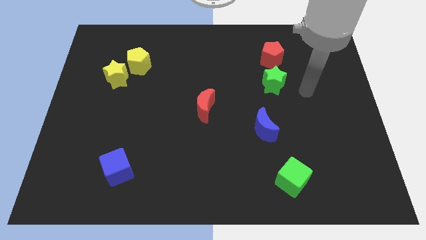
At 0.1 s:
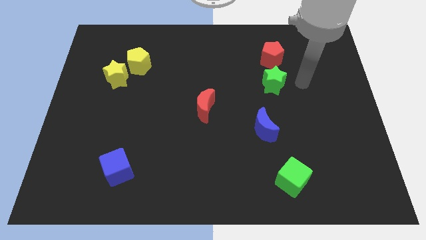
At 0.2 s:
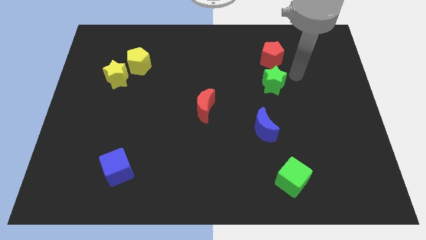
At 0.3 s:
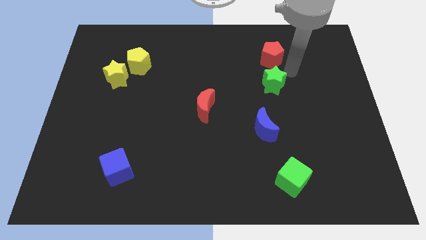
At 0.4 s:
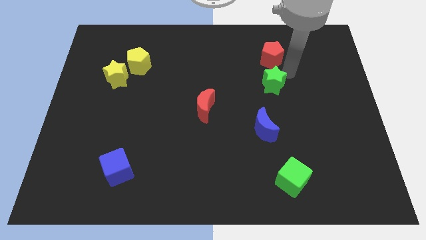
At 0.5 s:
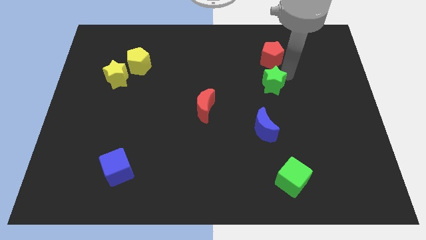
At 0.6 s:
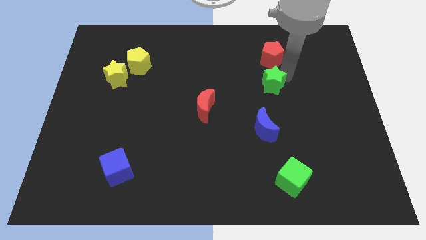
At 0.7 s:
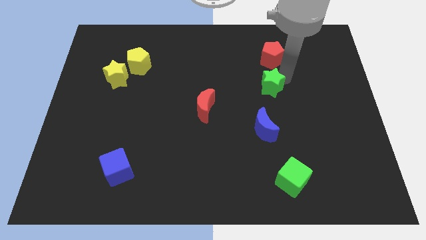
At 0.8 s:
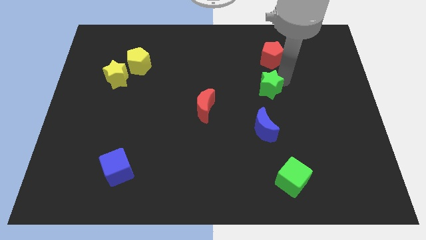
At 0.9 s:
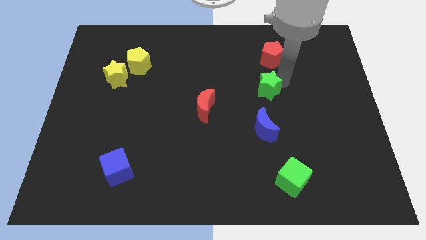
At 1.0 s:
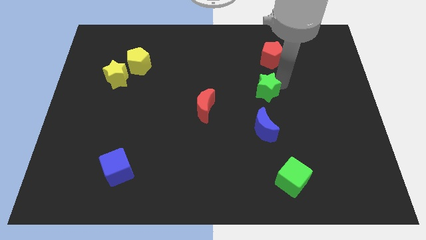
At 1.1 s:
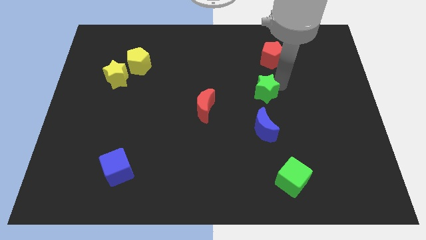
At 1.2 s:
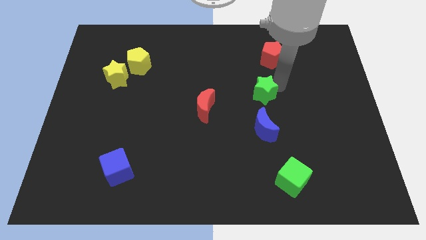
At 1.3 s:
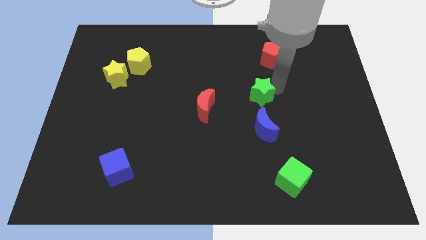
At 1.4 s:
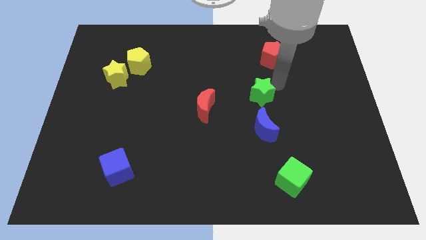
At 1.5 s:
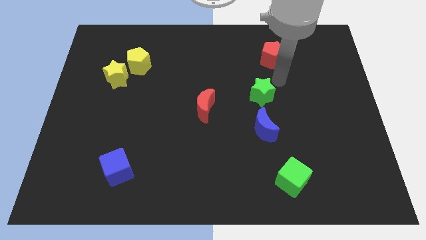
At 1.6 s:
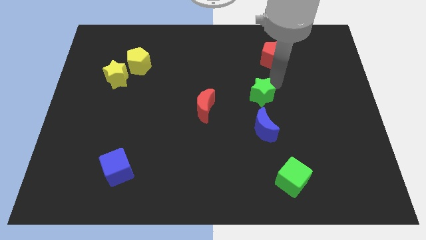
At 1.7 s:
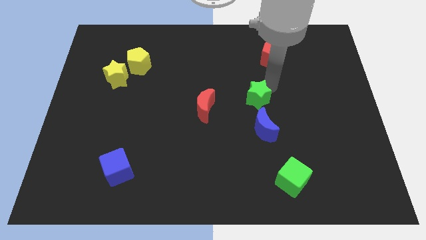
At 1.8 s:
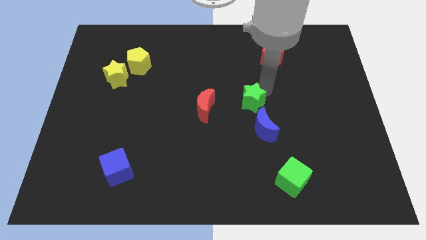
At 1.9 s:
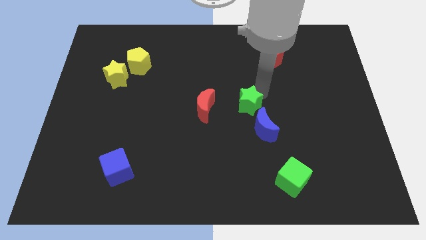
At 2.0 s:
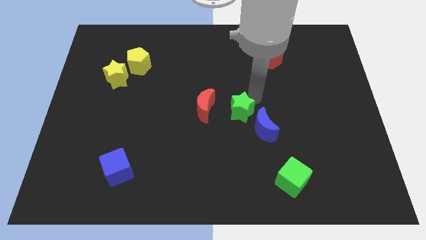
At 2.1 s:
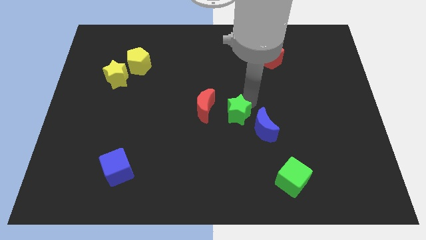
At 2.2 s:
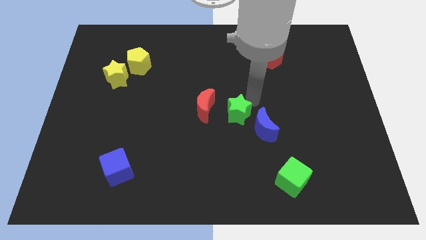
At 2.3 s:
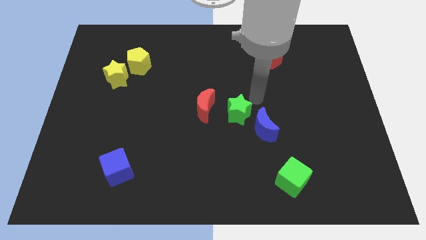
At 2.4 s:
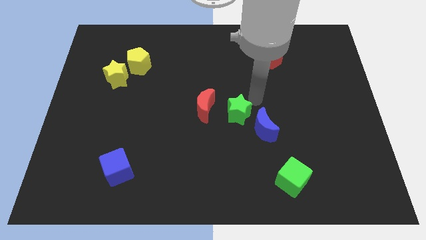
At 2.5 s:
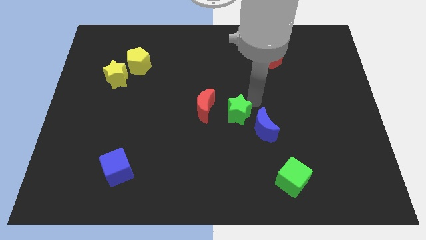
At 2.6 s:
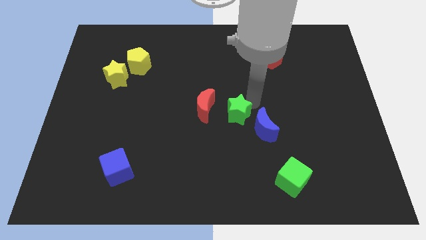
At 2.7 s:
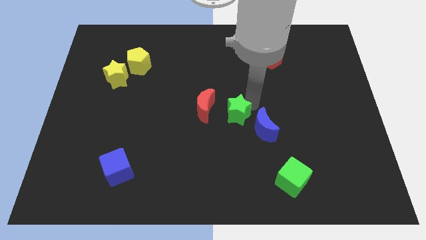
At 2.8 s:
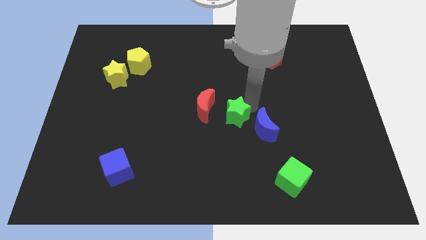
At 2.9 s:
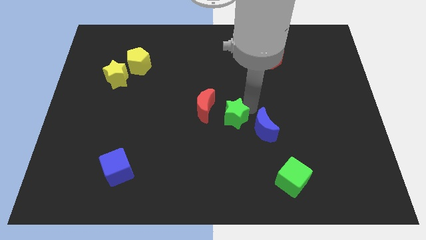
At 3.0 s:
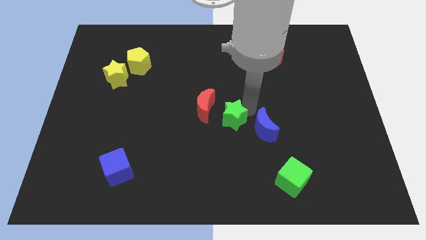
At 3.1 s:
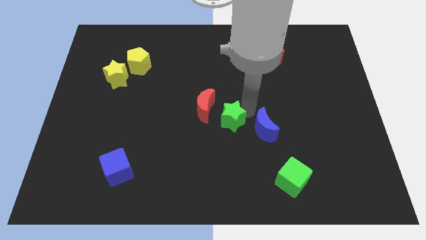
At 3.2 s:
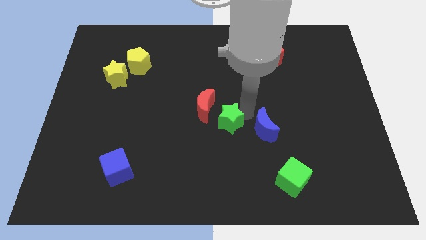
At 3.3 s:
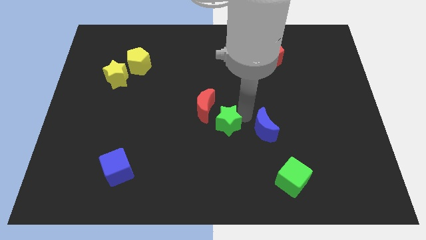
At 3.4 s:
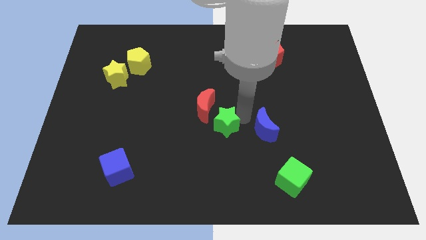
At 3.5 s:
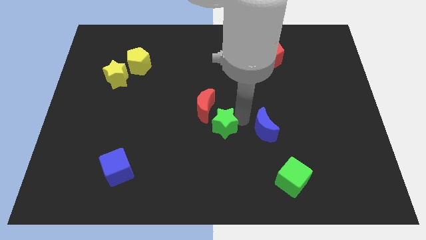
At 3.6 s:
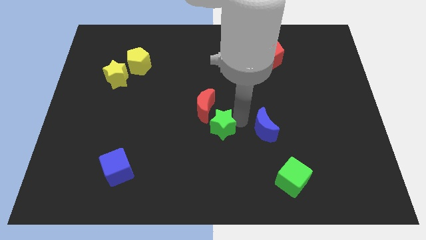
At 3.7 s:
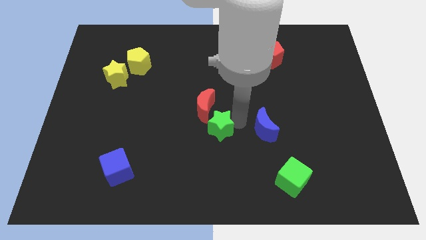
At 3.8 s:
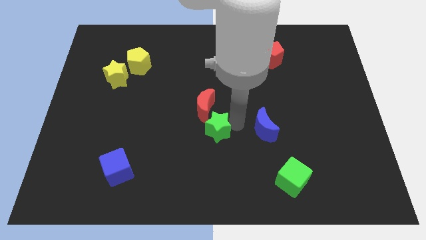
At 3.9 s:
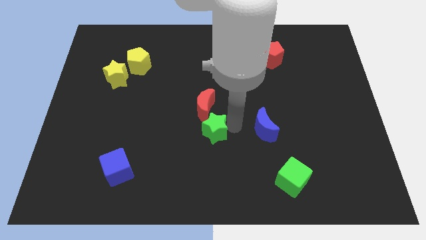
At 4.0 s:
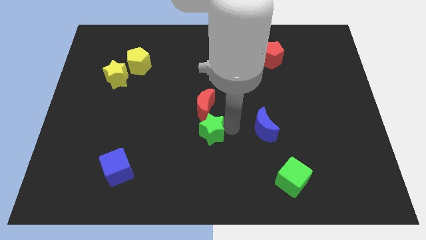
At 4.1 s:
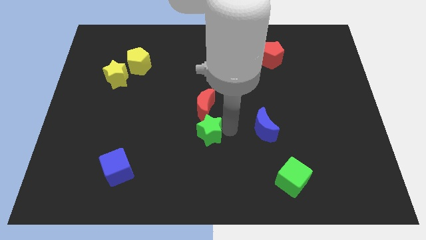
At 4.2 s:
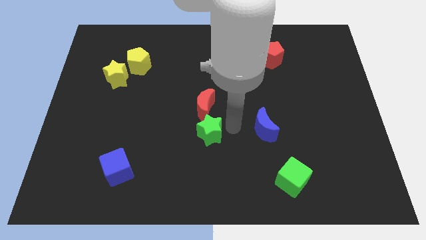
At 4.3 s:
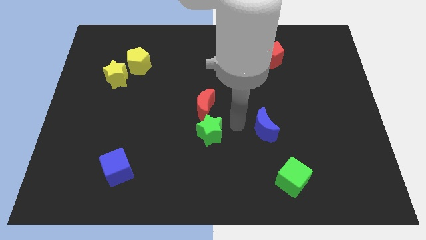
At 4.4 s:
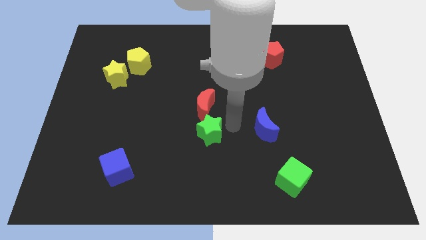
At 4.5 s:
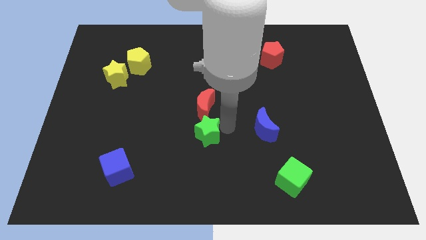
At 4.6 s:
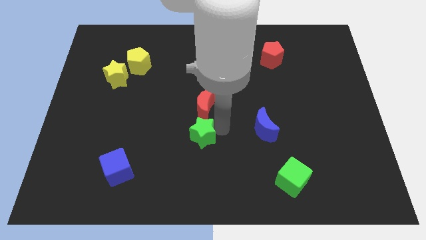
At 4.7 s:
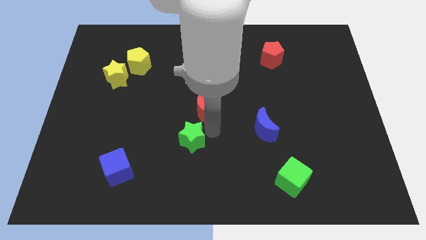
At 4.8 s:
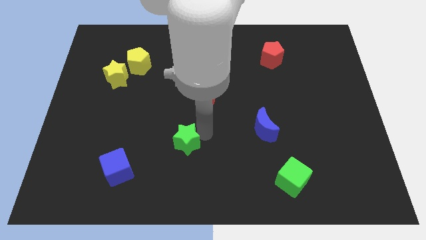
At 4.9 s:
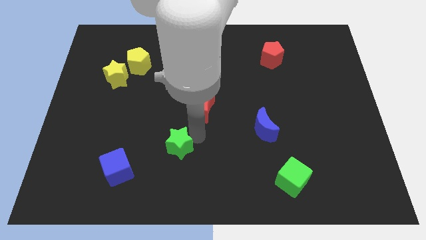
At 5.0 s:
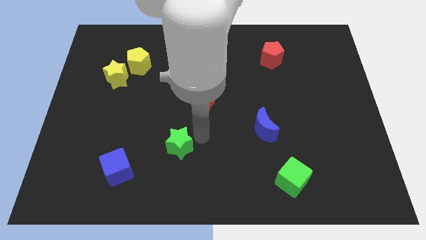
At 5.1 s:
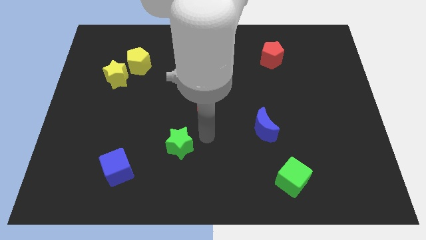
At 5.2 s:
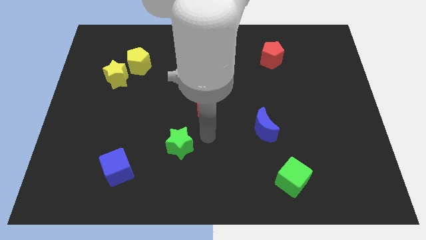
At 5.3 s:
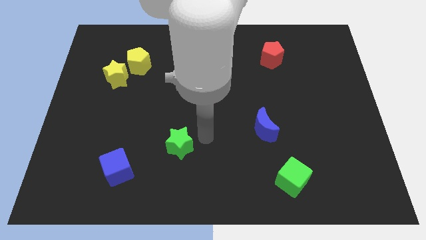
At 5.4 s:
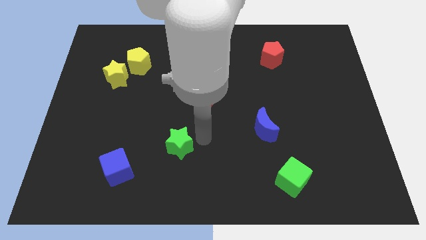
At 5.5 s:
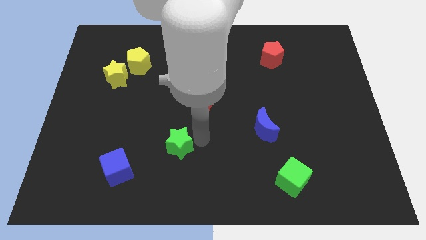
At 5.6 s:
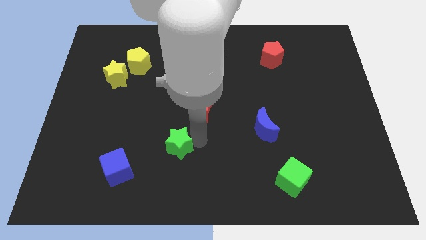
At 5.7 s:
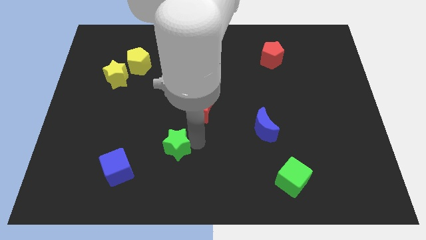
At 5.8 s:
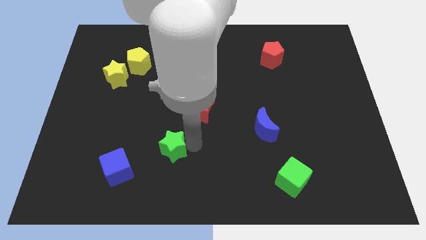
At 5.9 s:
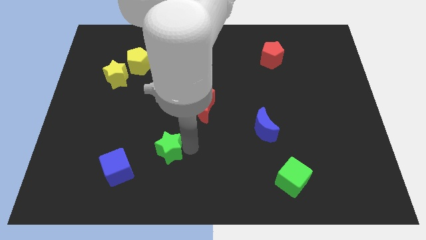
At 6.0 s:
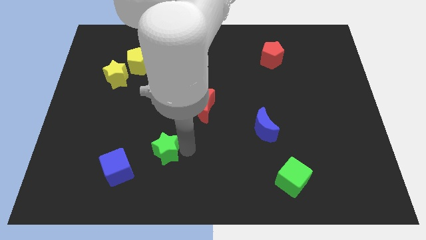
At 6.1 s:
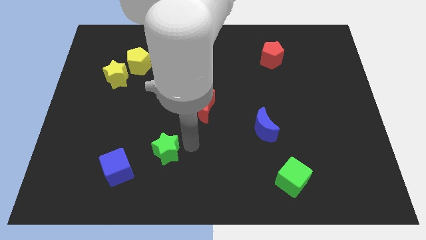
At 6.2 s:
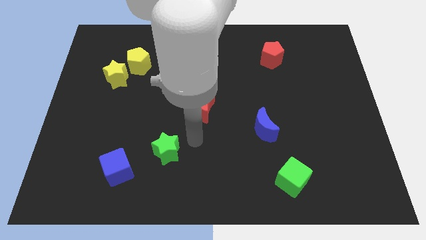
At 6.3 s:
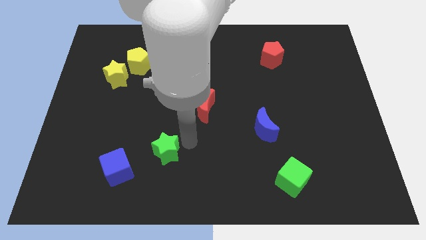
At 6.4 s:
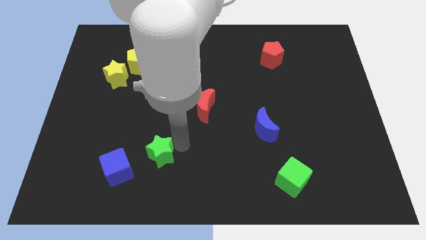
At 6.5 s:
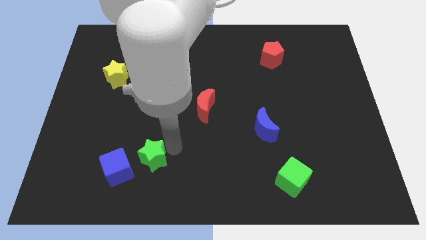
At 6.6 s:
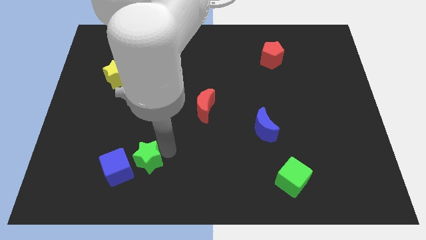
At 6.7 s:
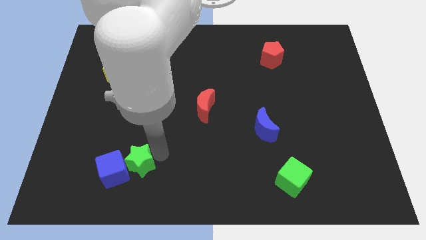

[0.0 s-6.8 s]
slide the green star close to the blue cube
